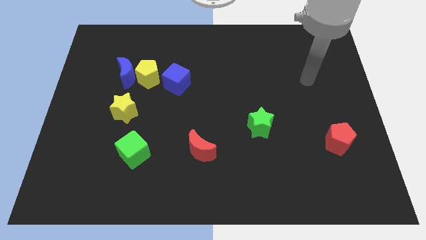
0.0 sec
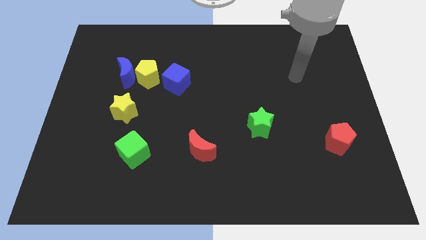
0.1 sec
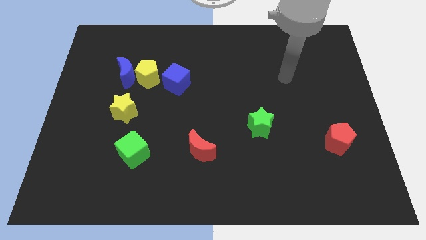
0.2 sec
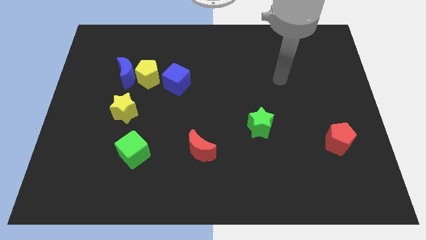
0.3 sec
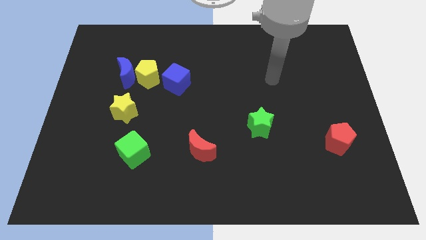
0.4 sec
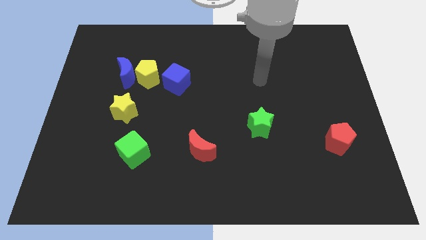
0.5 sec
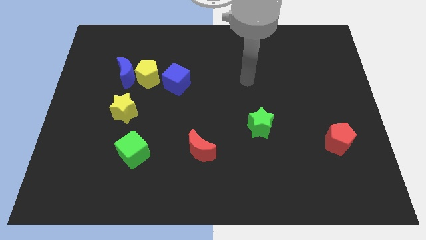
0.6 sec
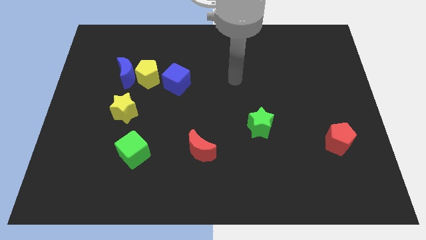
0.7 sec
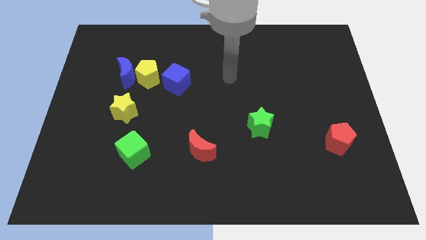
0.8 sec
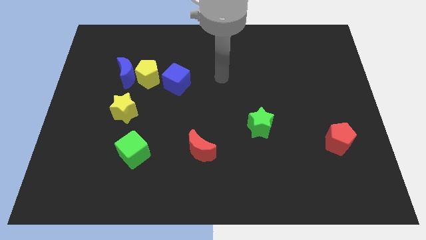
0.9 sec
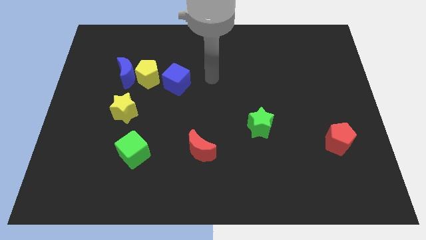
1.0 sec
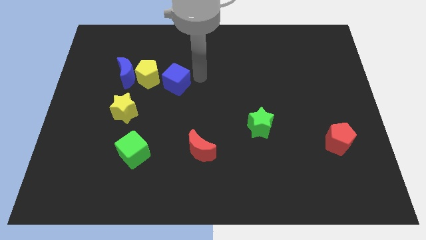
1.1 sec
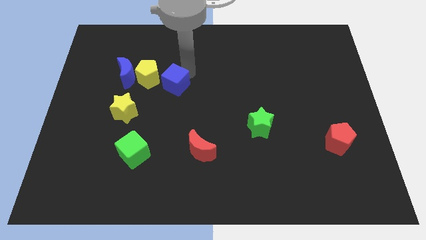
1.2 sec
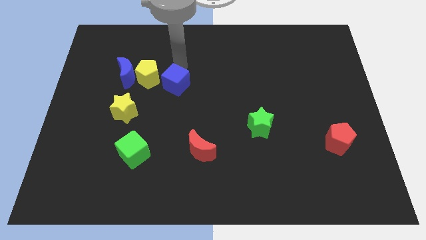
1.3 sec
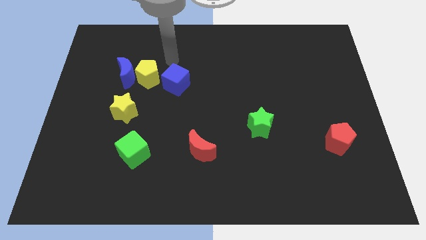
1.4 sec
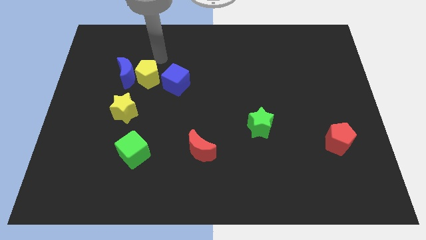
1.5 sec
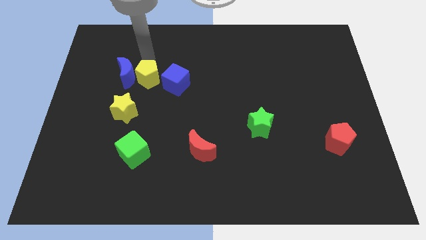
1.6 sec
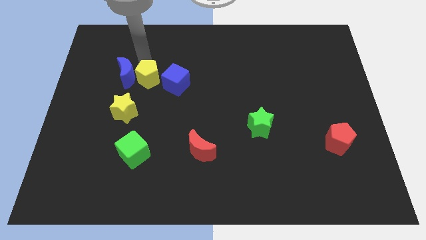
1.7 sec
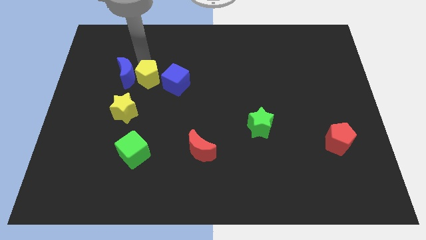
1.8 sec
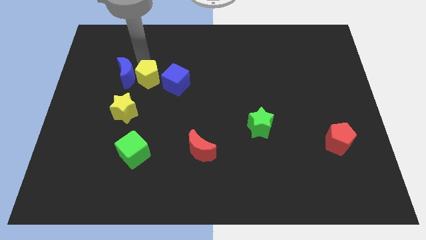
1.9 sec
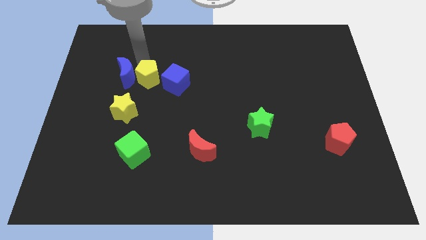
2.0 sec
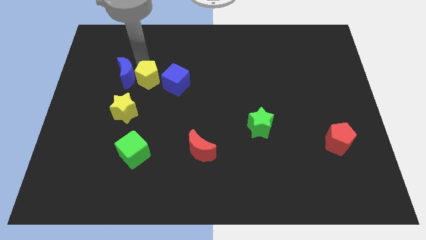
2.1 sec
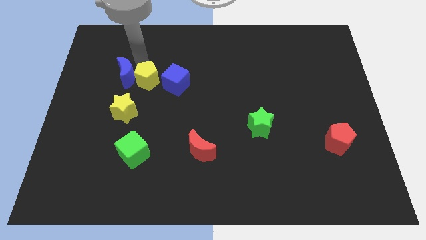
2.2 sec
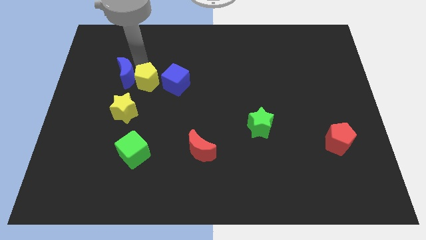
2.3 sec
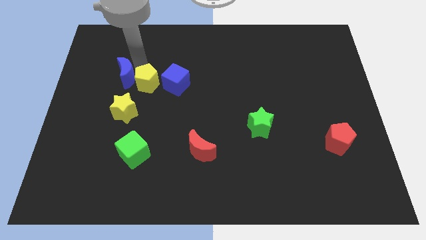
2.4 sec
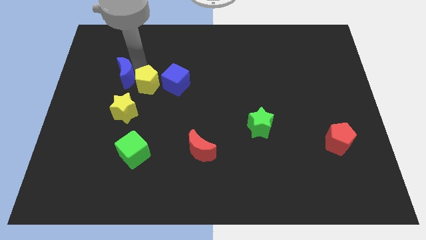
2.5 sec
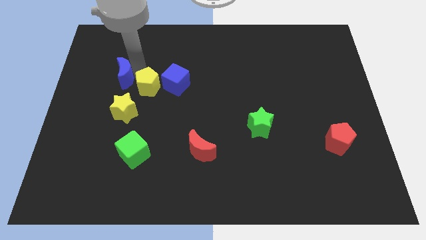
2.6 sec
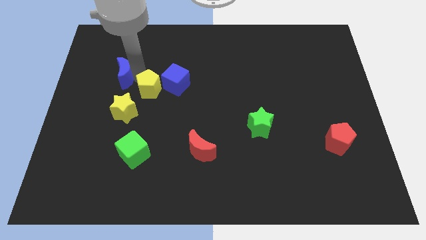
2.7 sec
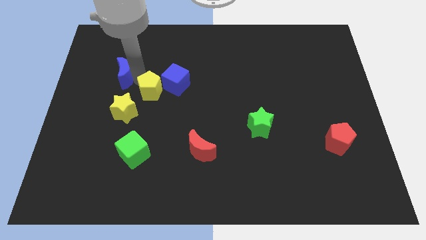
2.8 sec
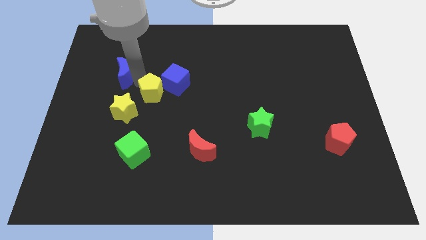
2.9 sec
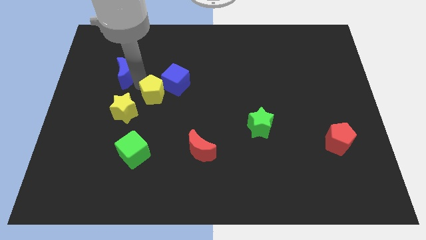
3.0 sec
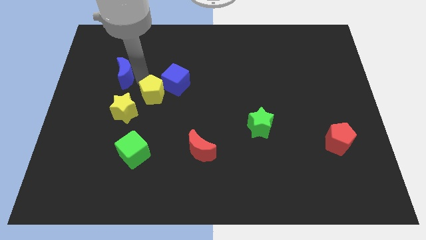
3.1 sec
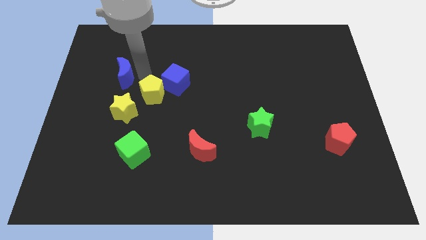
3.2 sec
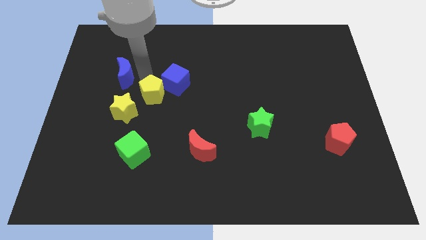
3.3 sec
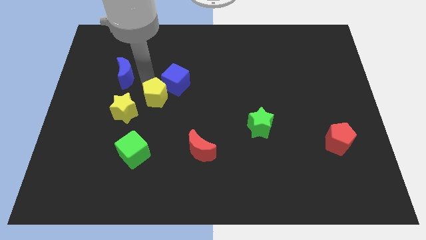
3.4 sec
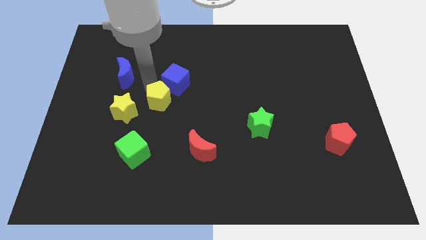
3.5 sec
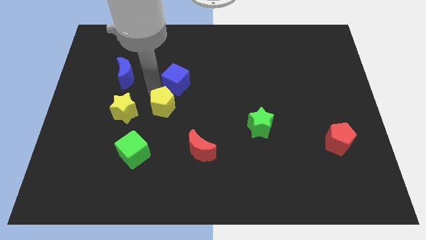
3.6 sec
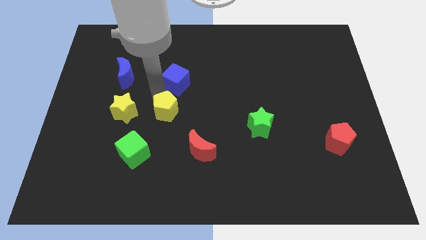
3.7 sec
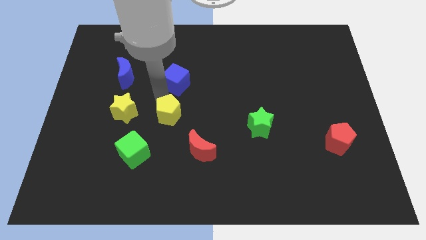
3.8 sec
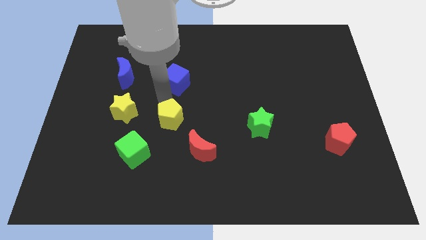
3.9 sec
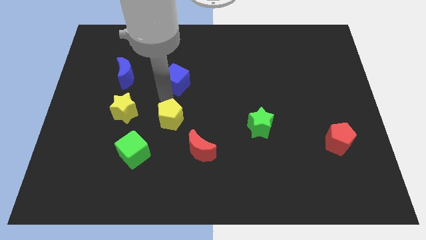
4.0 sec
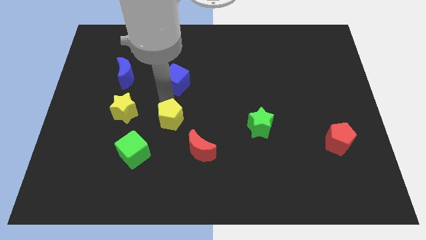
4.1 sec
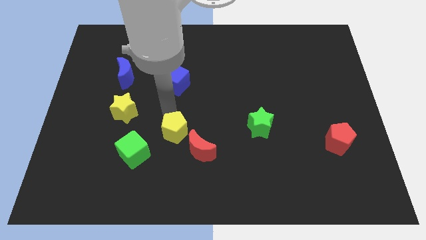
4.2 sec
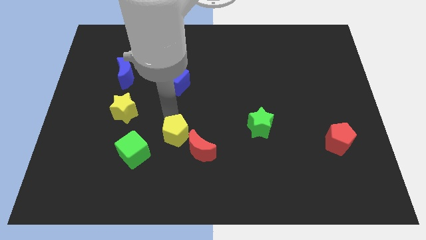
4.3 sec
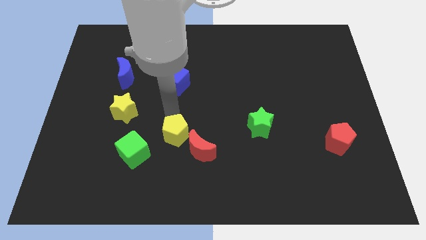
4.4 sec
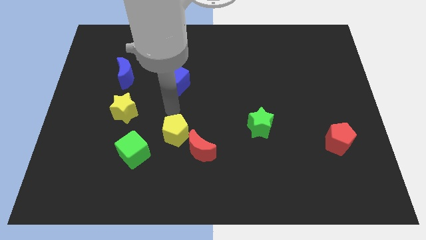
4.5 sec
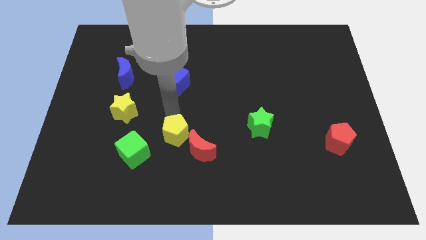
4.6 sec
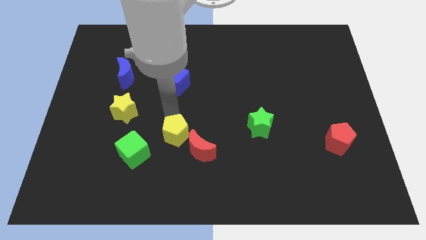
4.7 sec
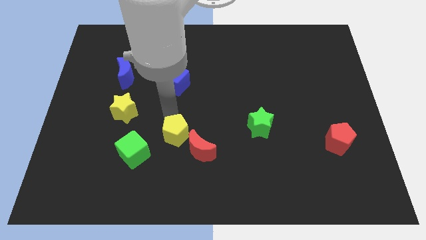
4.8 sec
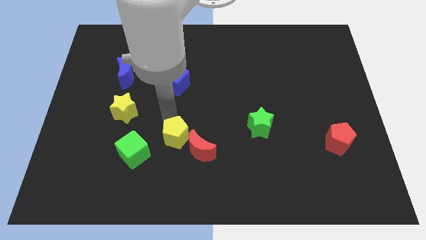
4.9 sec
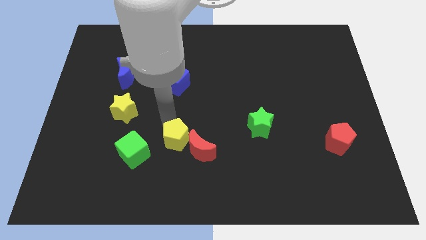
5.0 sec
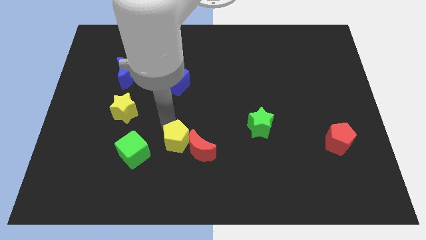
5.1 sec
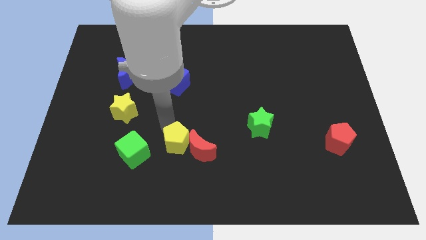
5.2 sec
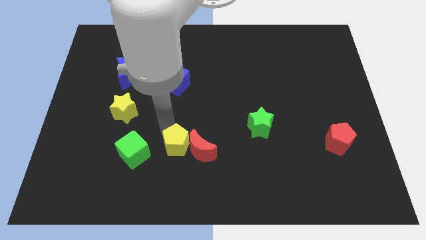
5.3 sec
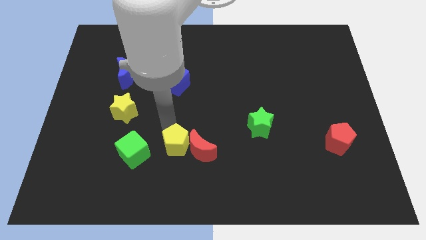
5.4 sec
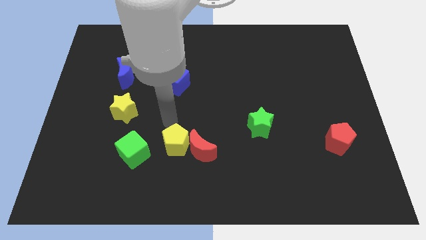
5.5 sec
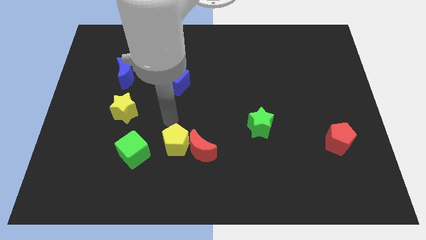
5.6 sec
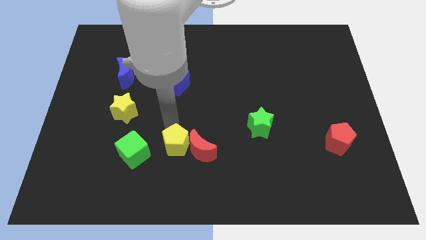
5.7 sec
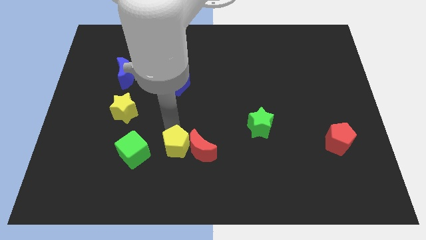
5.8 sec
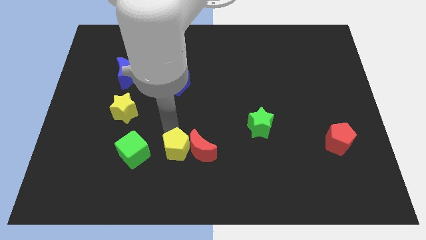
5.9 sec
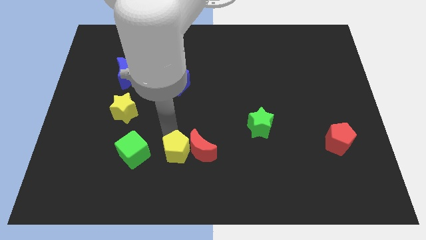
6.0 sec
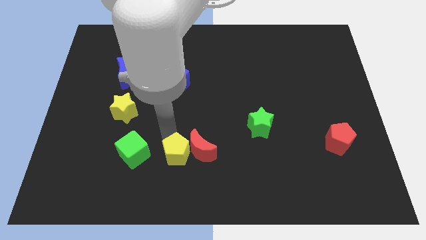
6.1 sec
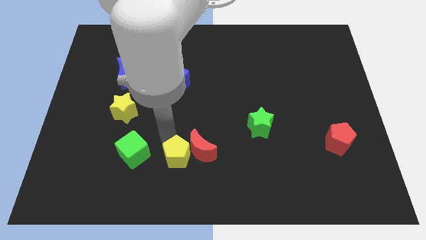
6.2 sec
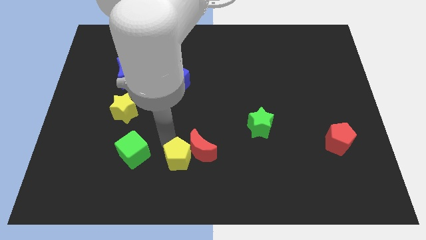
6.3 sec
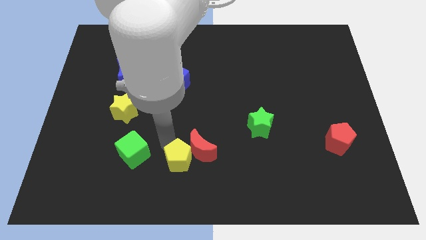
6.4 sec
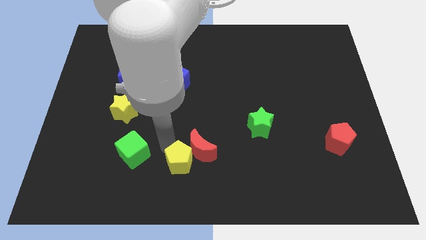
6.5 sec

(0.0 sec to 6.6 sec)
slide the yellow pentagon to the bottom side
